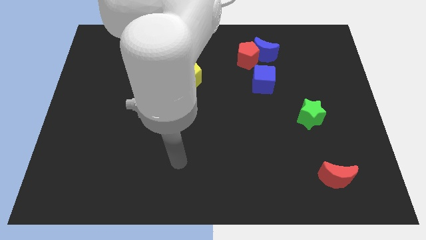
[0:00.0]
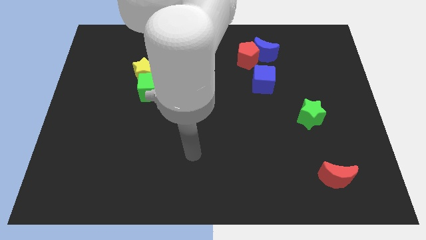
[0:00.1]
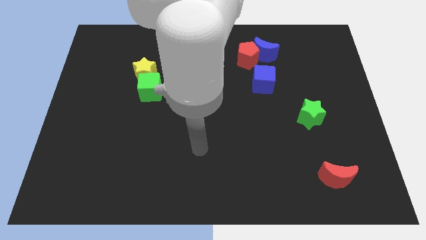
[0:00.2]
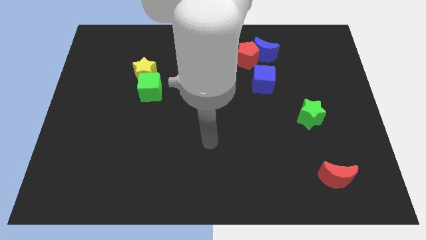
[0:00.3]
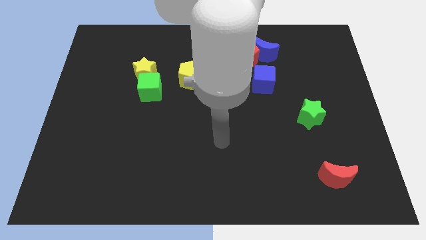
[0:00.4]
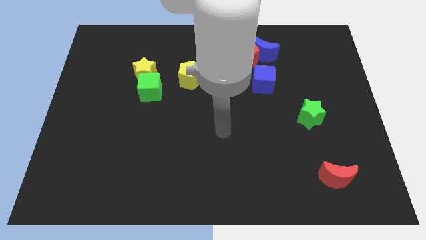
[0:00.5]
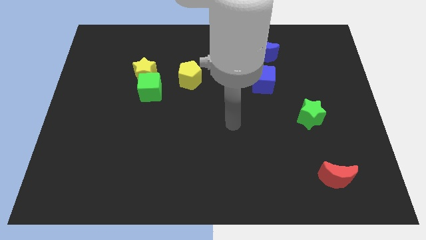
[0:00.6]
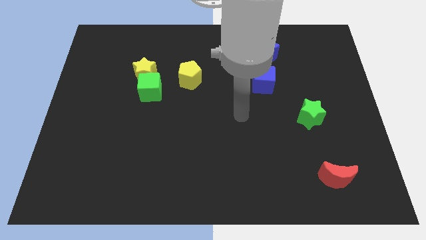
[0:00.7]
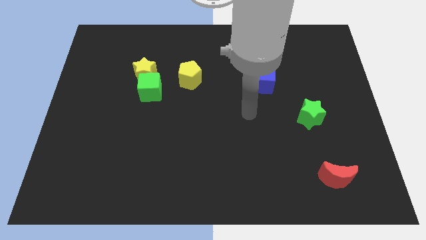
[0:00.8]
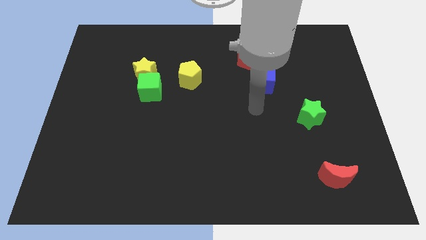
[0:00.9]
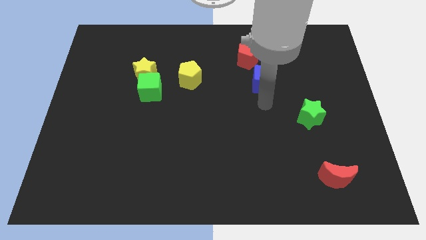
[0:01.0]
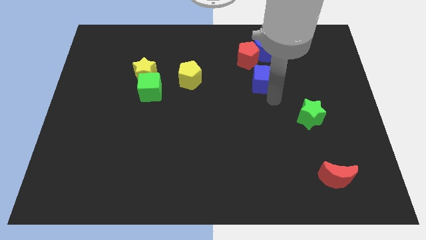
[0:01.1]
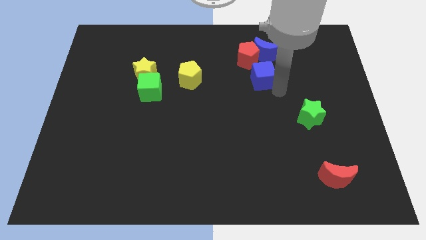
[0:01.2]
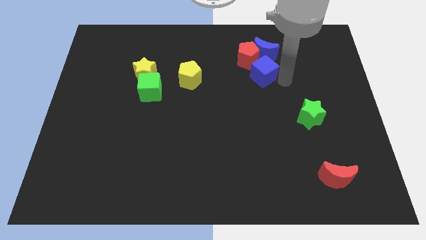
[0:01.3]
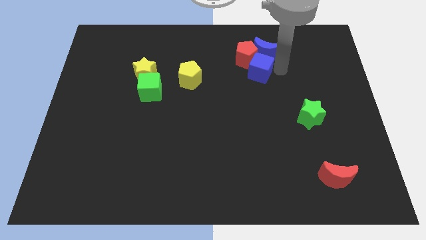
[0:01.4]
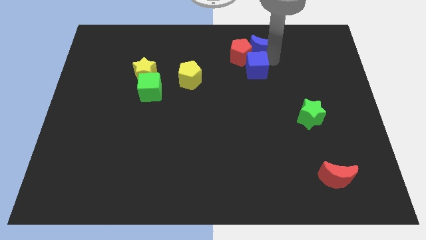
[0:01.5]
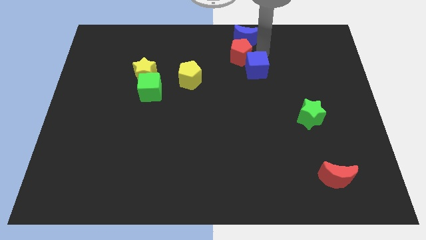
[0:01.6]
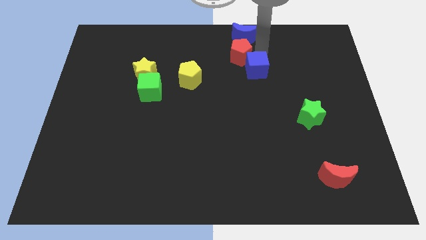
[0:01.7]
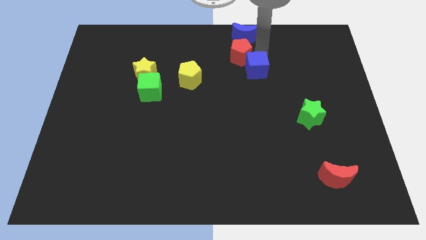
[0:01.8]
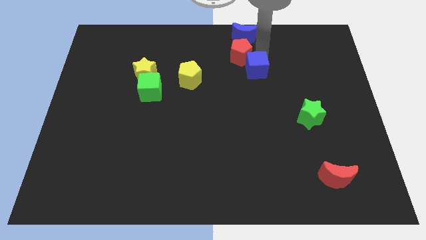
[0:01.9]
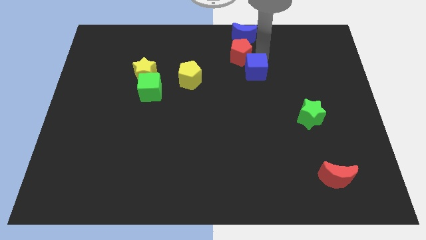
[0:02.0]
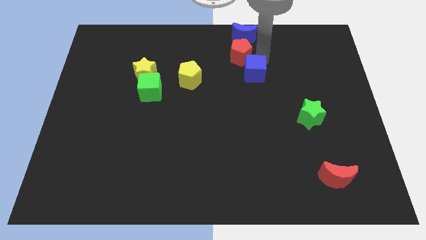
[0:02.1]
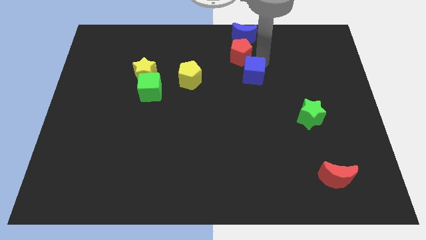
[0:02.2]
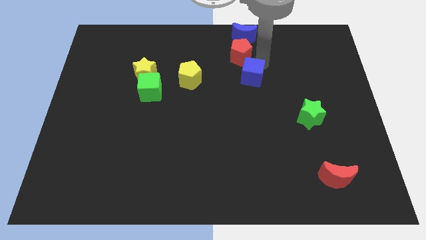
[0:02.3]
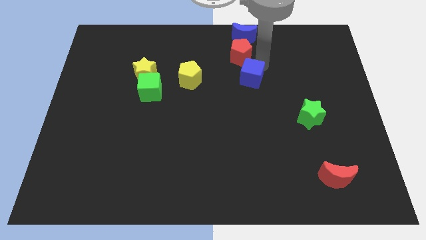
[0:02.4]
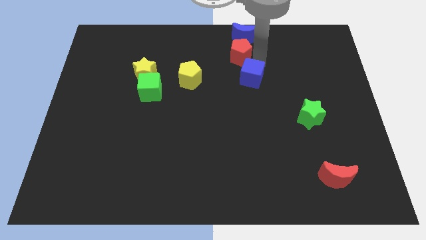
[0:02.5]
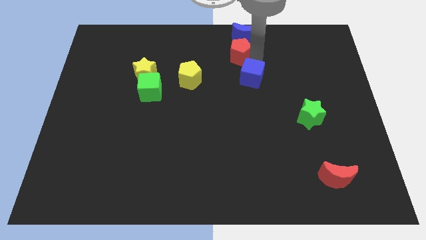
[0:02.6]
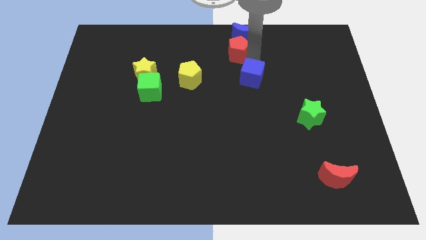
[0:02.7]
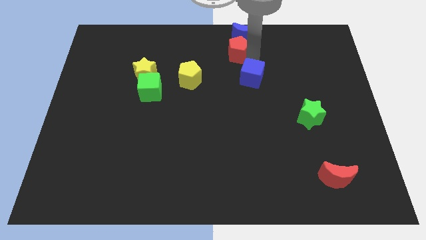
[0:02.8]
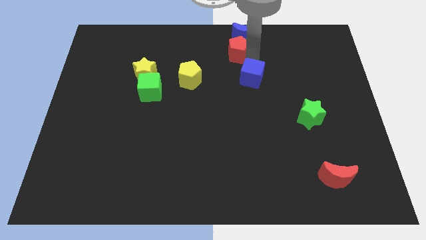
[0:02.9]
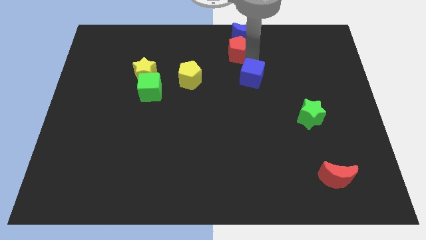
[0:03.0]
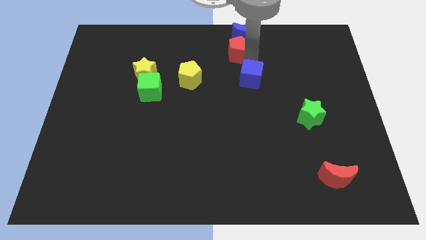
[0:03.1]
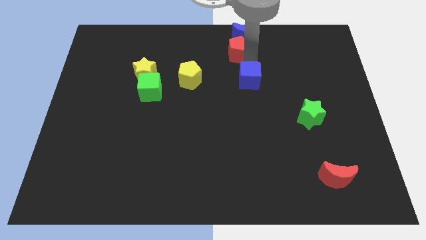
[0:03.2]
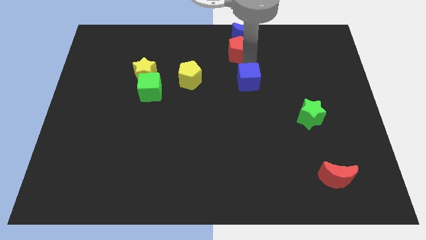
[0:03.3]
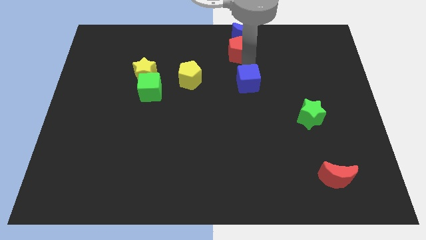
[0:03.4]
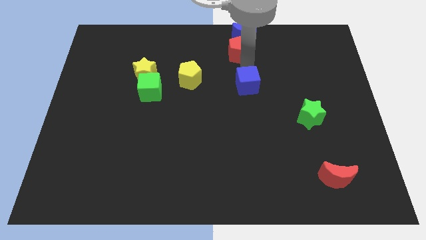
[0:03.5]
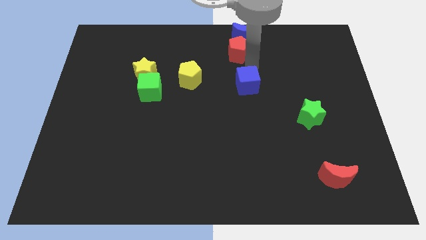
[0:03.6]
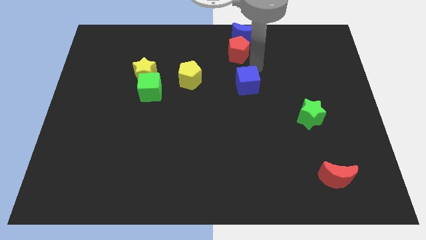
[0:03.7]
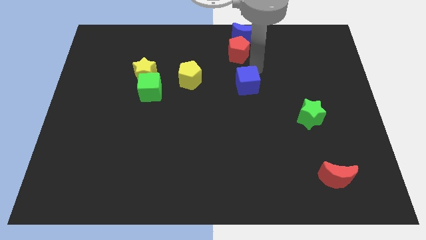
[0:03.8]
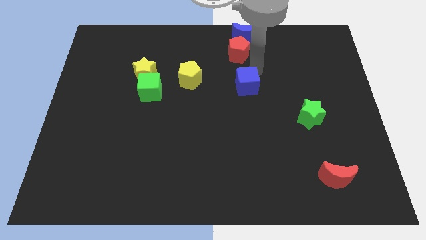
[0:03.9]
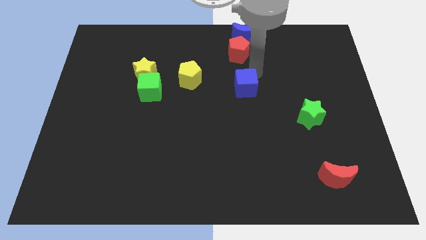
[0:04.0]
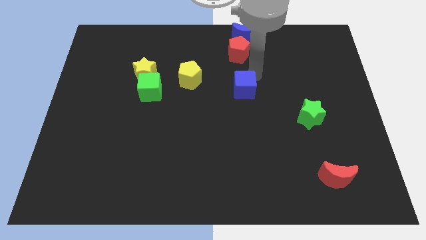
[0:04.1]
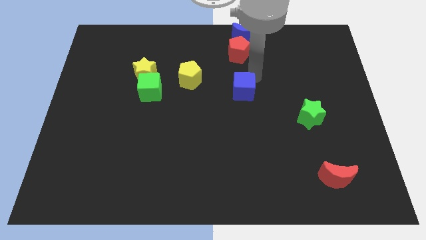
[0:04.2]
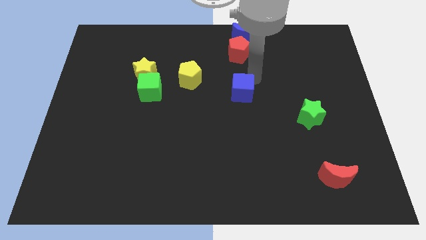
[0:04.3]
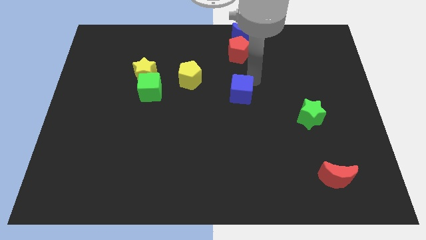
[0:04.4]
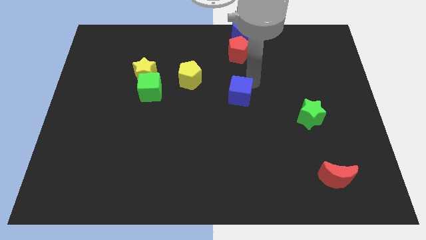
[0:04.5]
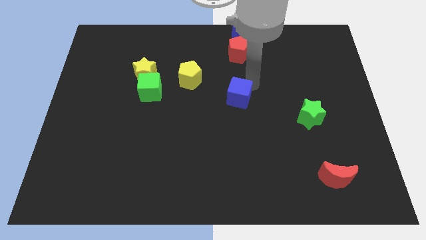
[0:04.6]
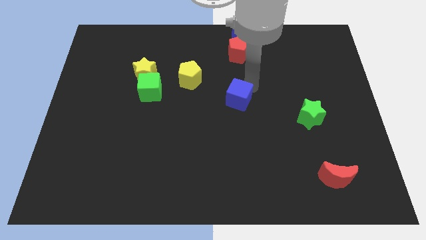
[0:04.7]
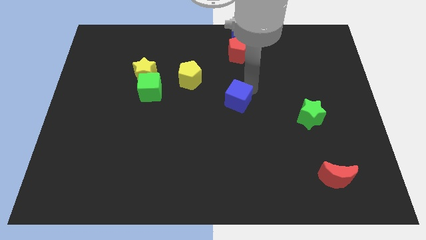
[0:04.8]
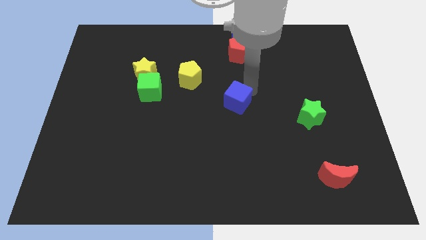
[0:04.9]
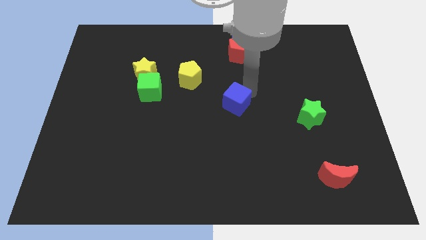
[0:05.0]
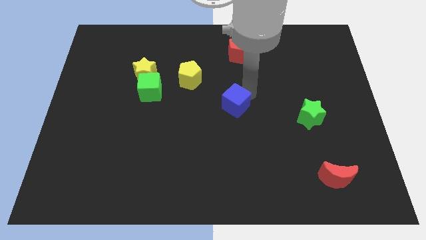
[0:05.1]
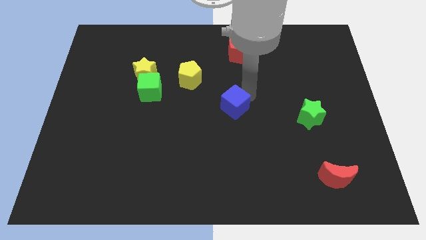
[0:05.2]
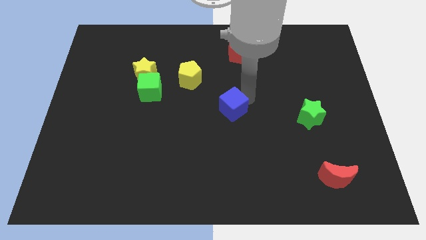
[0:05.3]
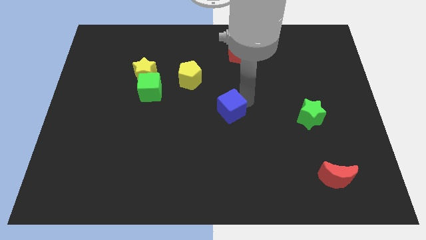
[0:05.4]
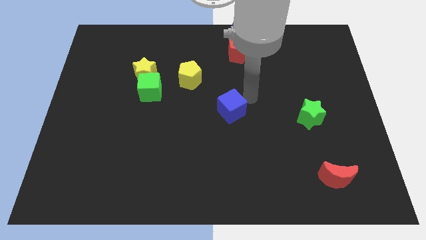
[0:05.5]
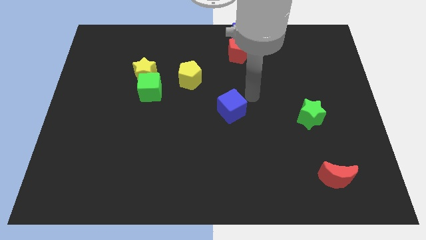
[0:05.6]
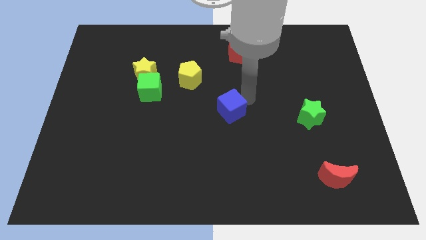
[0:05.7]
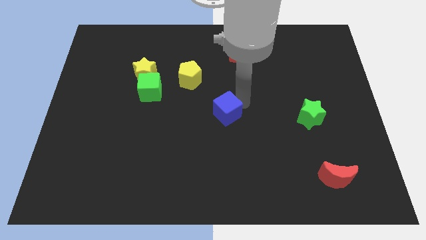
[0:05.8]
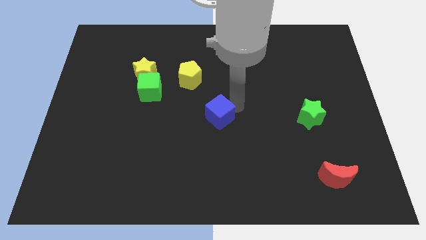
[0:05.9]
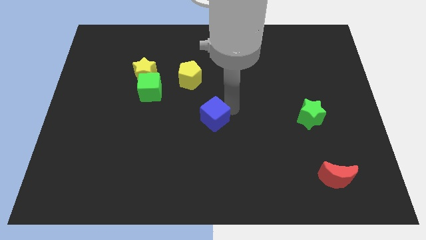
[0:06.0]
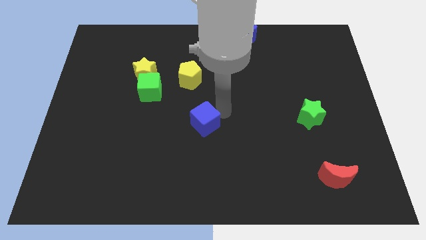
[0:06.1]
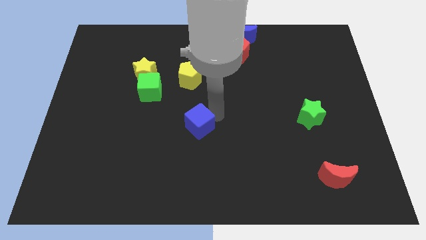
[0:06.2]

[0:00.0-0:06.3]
move the blue cube down and left

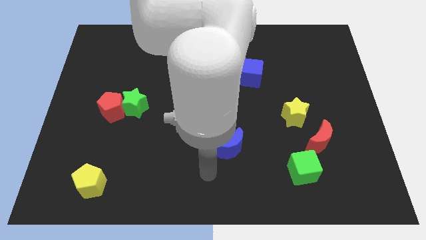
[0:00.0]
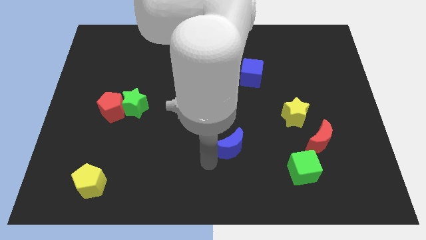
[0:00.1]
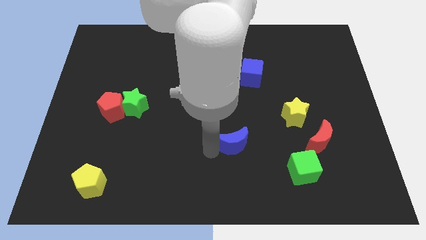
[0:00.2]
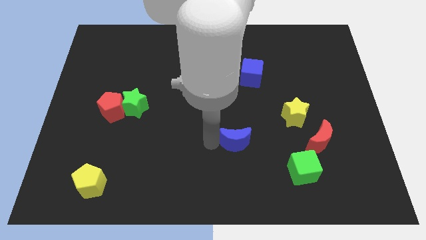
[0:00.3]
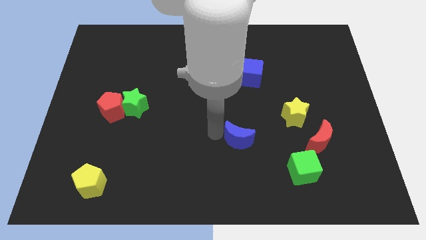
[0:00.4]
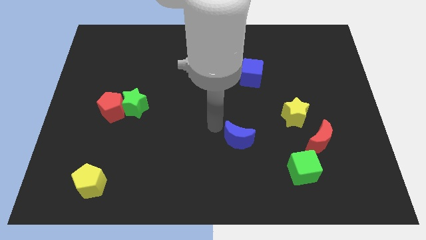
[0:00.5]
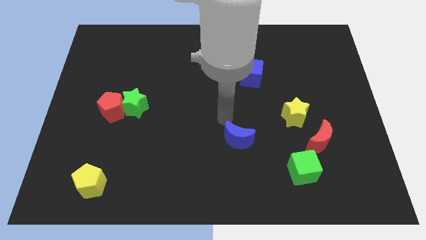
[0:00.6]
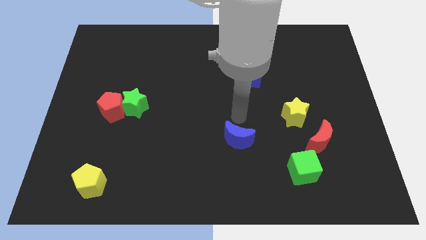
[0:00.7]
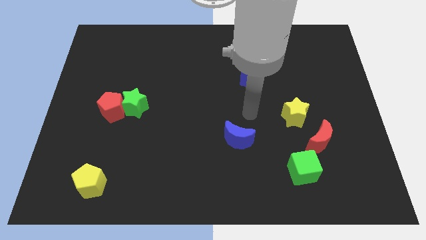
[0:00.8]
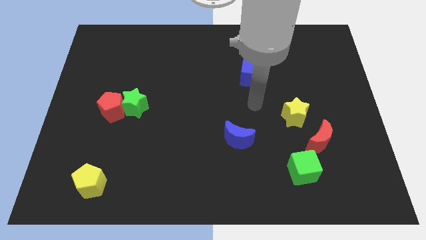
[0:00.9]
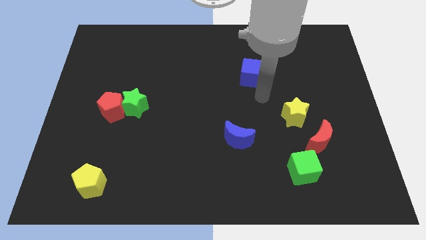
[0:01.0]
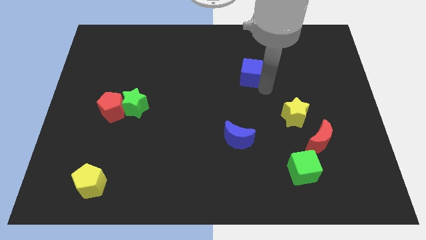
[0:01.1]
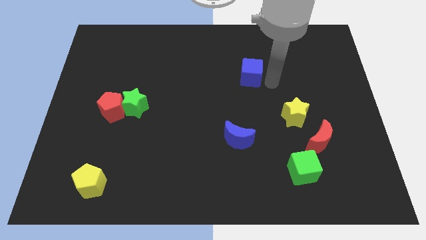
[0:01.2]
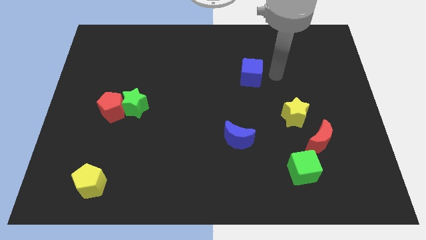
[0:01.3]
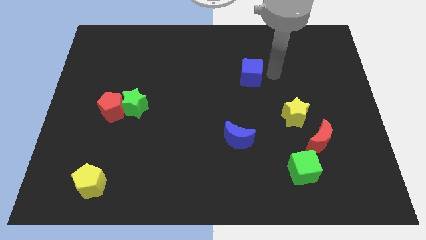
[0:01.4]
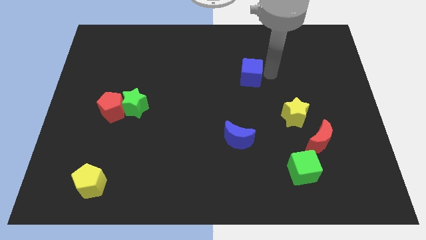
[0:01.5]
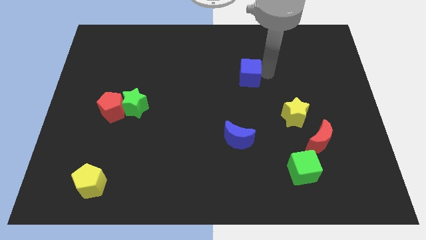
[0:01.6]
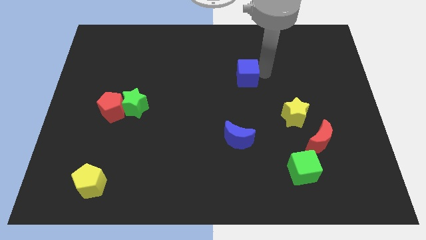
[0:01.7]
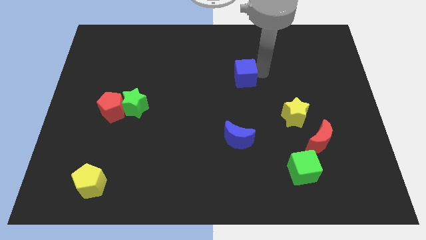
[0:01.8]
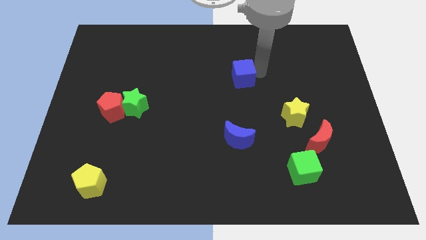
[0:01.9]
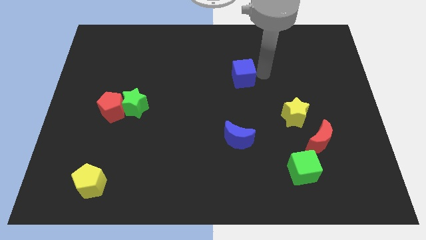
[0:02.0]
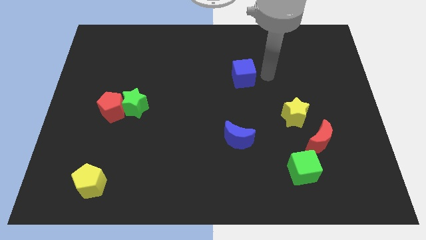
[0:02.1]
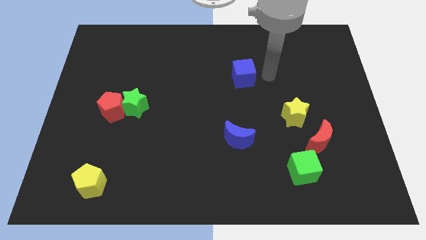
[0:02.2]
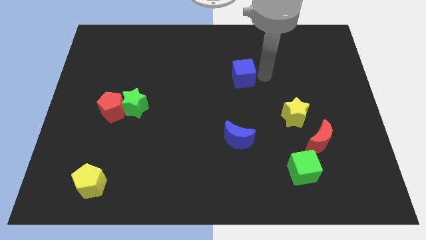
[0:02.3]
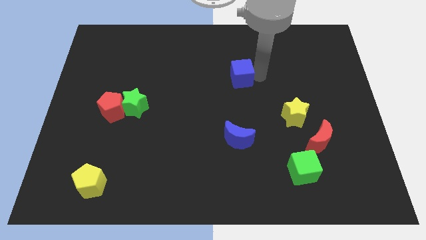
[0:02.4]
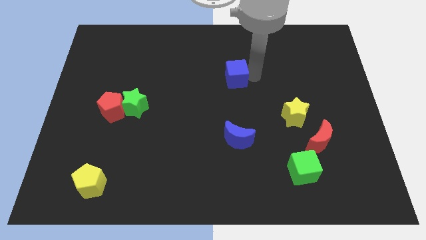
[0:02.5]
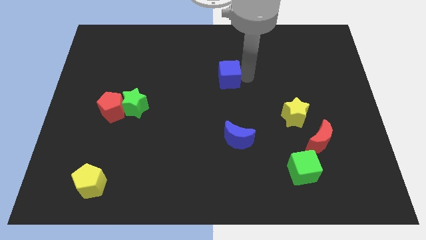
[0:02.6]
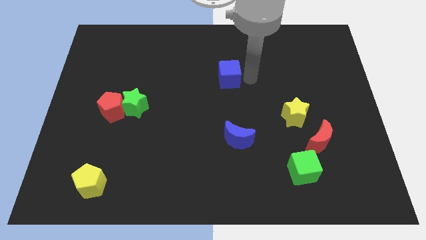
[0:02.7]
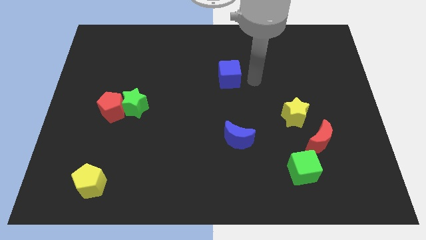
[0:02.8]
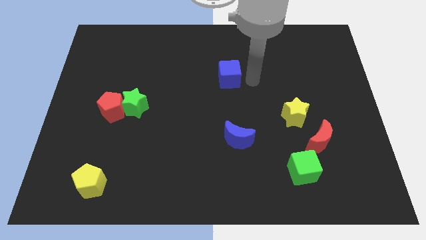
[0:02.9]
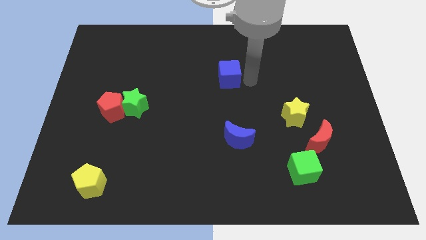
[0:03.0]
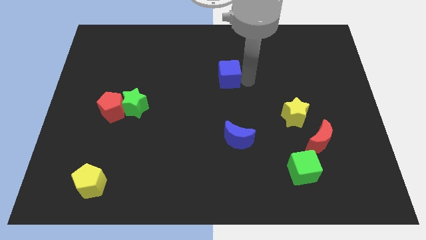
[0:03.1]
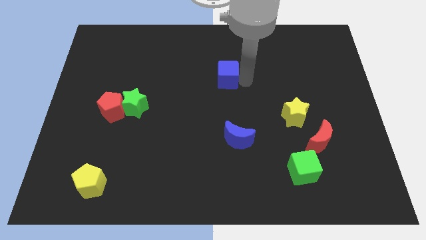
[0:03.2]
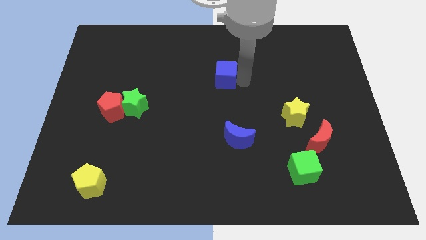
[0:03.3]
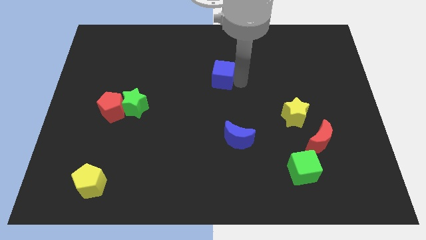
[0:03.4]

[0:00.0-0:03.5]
slide the blue cube to the left a little
